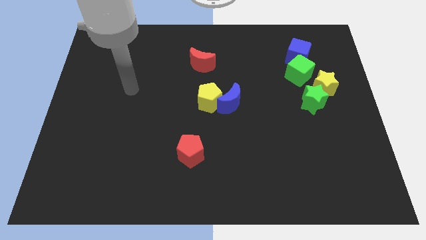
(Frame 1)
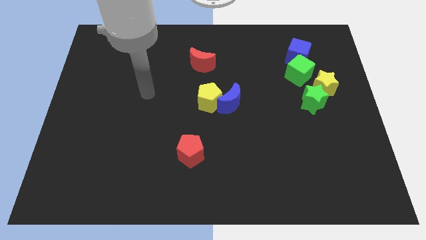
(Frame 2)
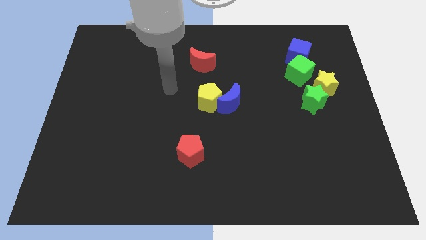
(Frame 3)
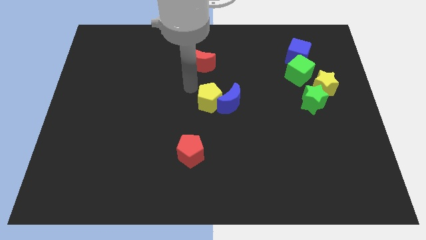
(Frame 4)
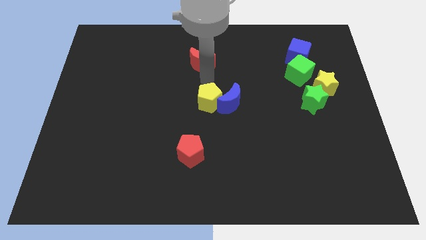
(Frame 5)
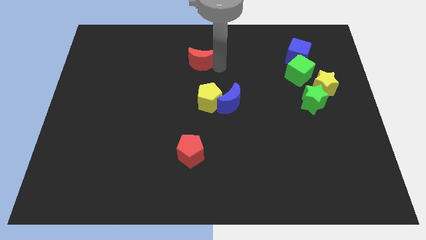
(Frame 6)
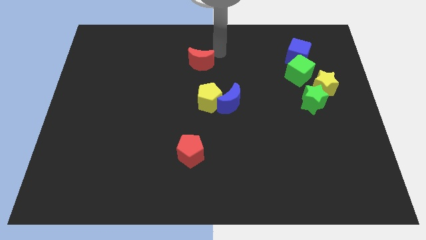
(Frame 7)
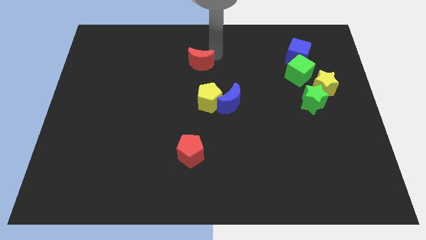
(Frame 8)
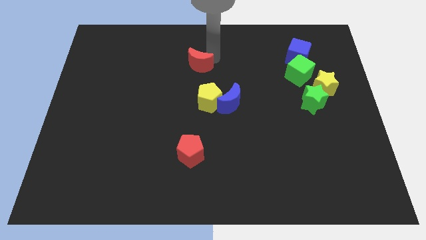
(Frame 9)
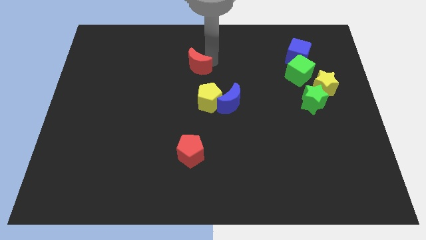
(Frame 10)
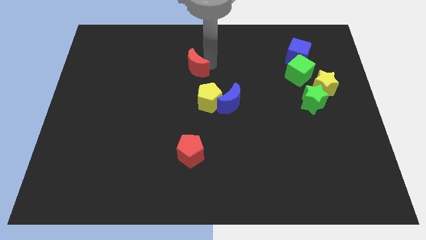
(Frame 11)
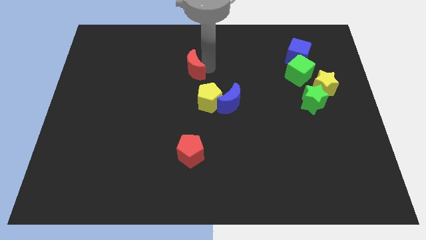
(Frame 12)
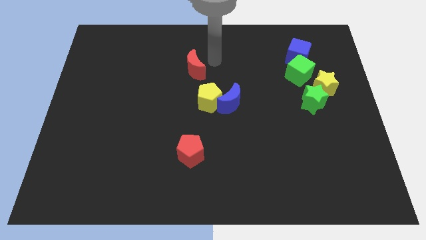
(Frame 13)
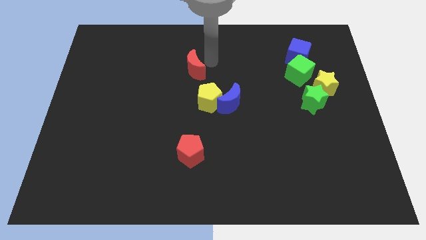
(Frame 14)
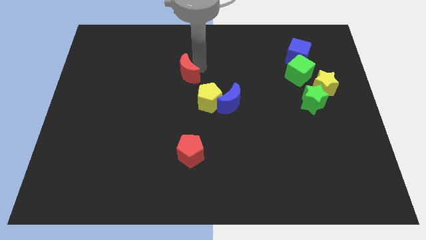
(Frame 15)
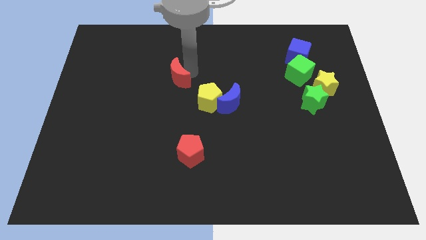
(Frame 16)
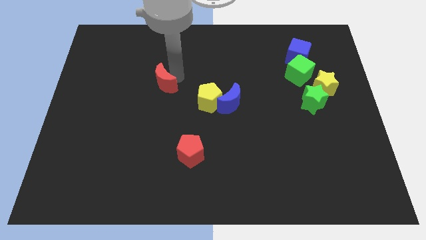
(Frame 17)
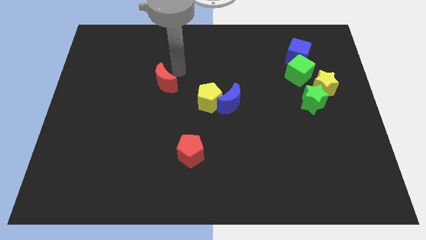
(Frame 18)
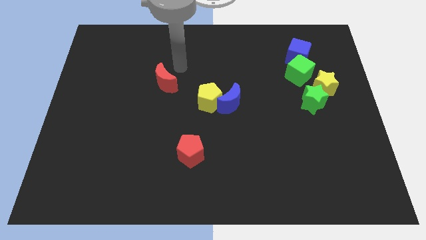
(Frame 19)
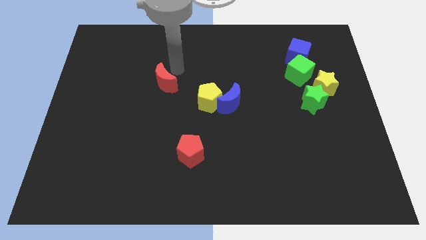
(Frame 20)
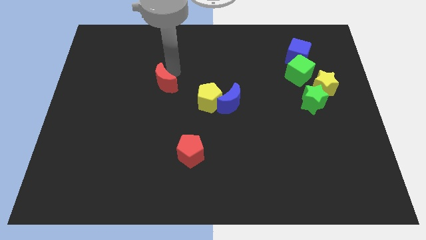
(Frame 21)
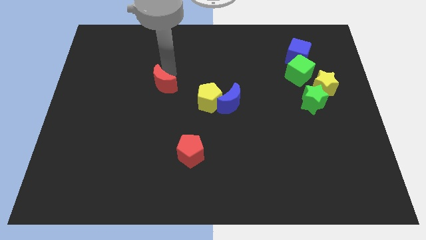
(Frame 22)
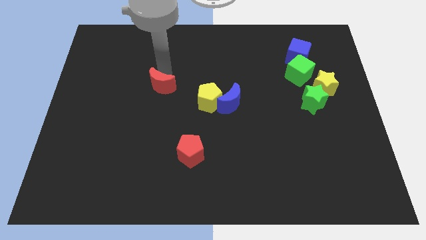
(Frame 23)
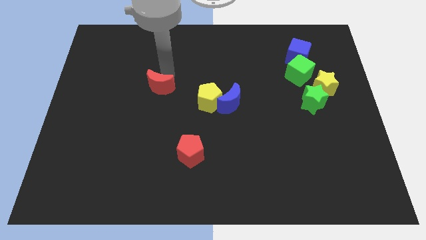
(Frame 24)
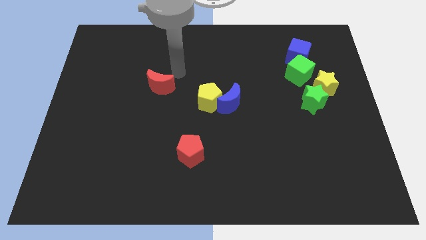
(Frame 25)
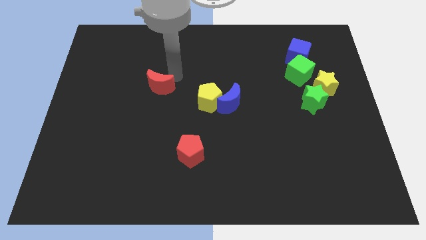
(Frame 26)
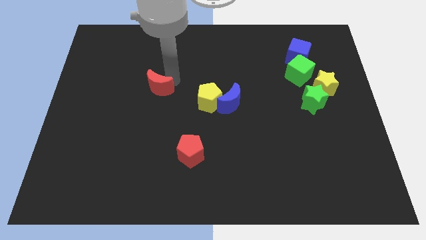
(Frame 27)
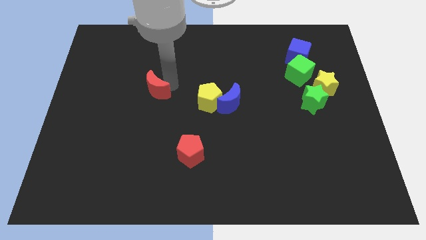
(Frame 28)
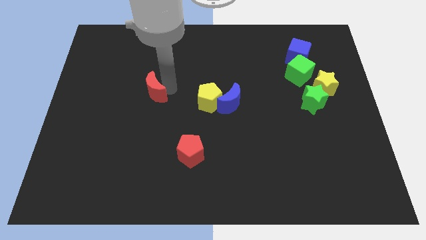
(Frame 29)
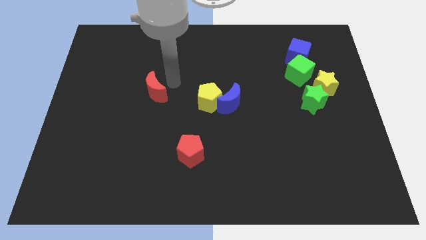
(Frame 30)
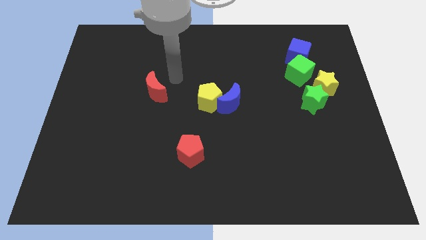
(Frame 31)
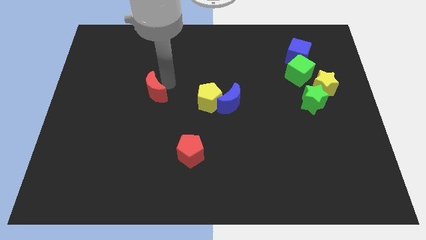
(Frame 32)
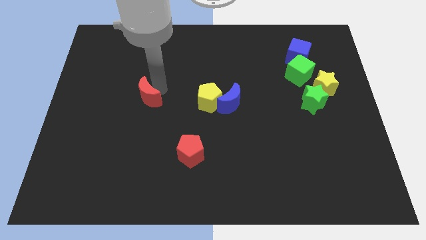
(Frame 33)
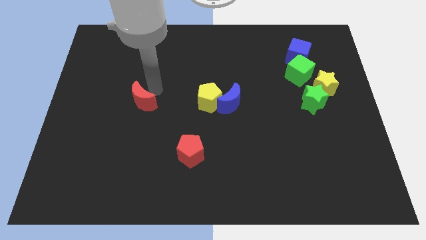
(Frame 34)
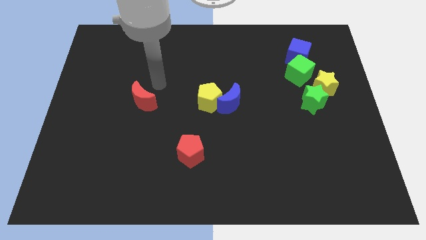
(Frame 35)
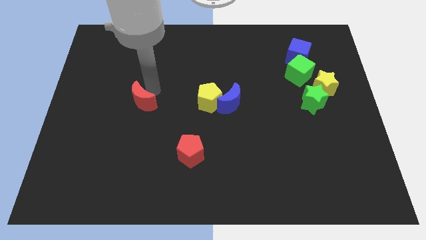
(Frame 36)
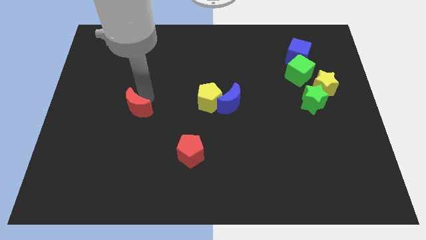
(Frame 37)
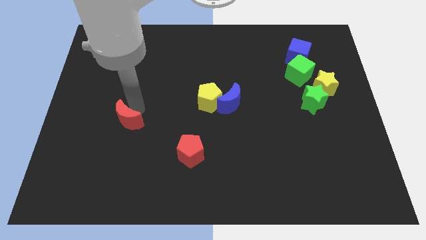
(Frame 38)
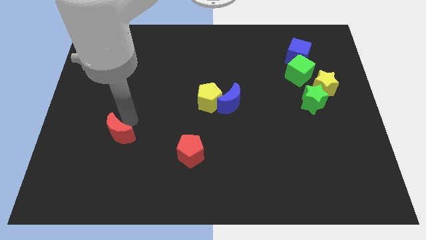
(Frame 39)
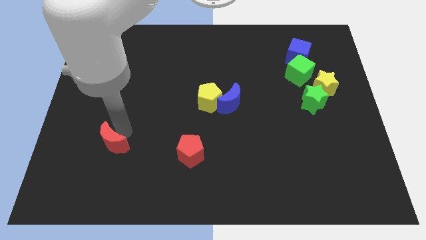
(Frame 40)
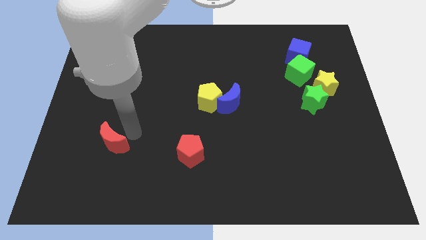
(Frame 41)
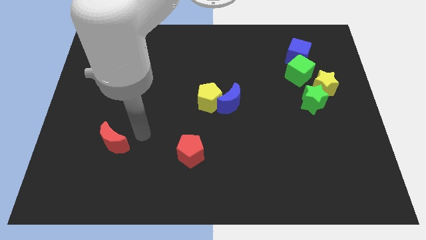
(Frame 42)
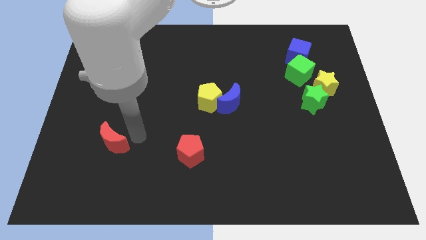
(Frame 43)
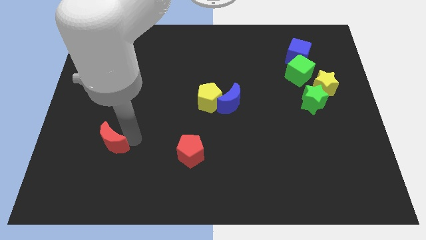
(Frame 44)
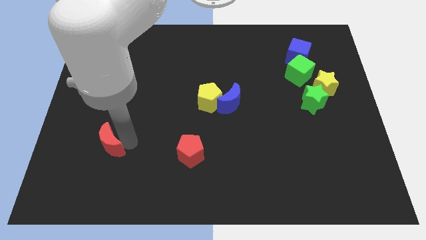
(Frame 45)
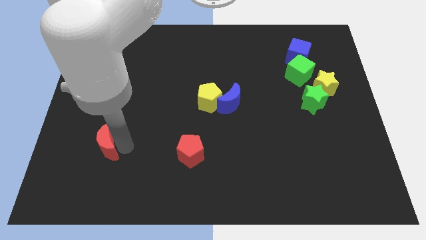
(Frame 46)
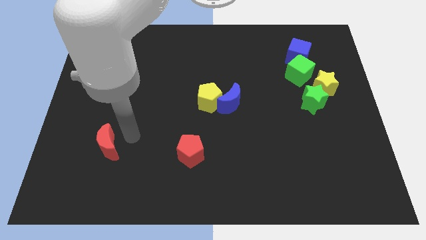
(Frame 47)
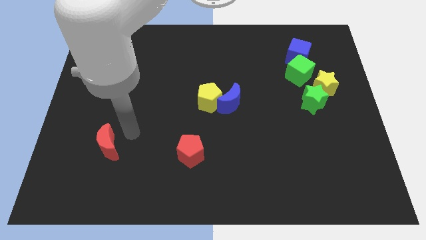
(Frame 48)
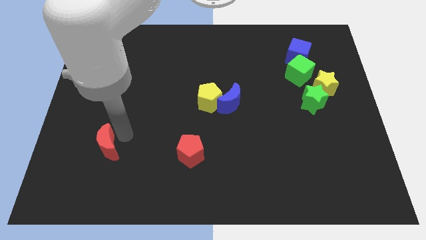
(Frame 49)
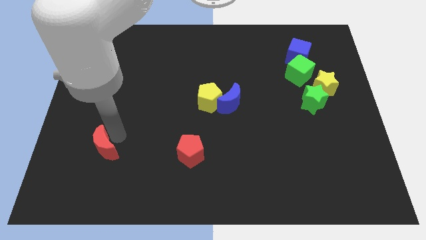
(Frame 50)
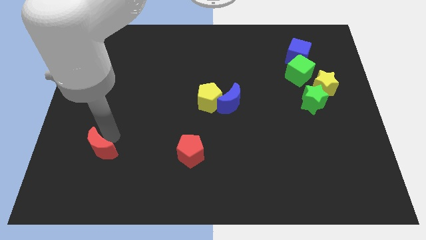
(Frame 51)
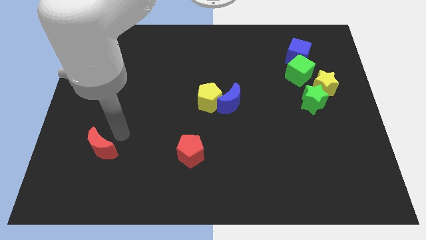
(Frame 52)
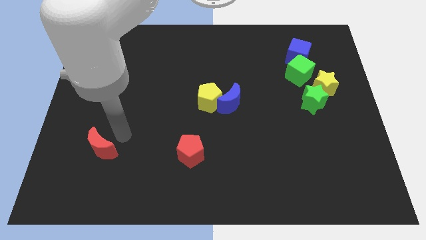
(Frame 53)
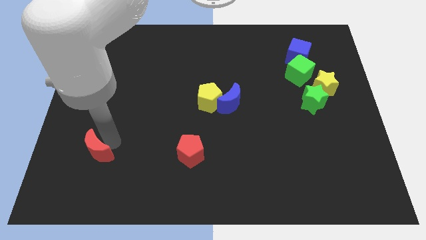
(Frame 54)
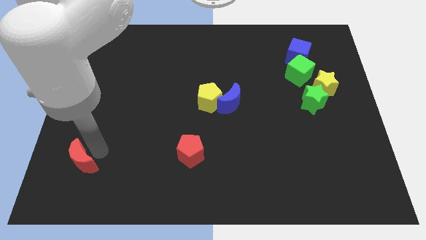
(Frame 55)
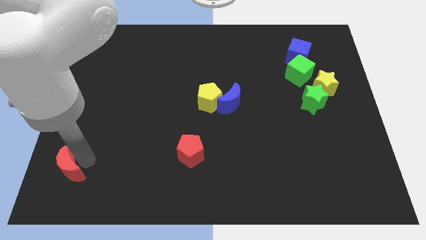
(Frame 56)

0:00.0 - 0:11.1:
slide the red moon to the bottom left of the board

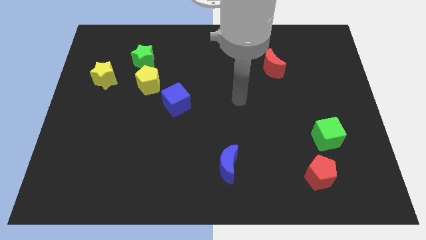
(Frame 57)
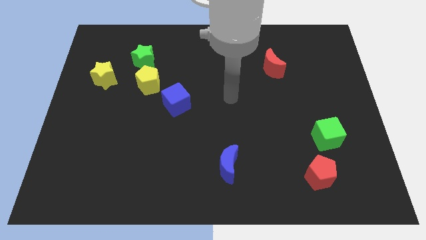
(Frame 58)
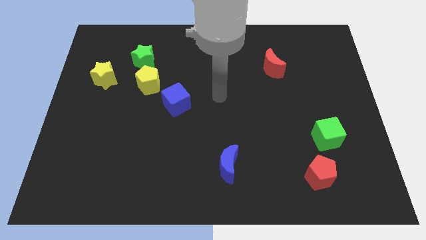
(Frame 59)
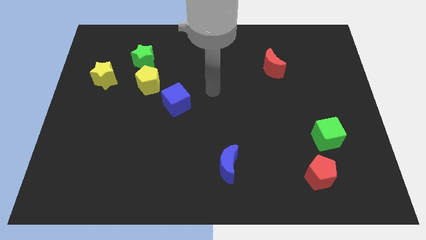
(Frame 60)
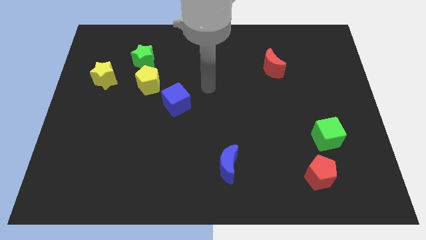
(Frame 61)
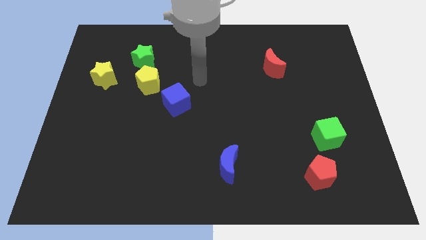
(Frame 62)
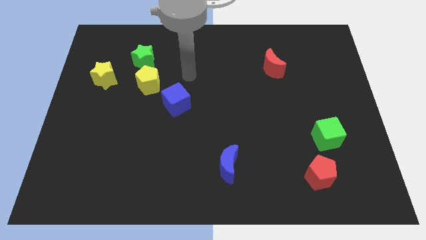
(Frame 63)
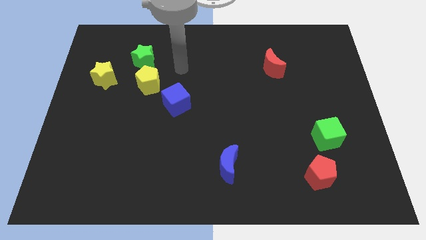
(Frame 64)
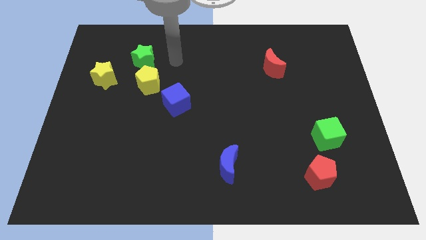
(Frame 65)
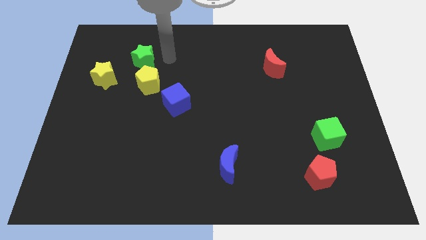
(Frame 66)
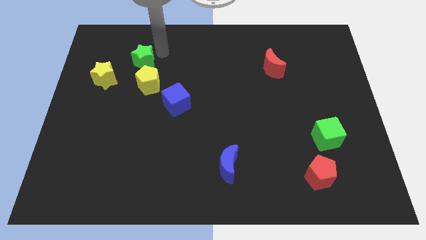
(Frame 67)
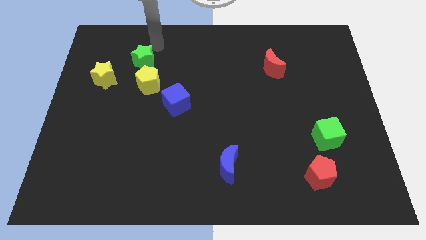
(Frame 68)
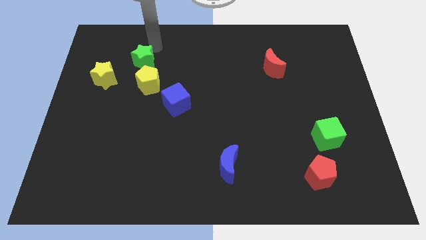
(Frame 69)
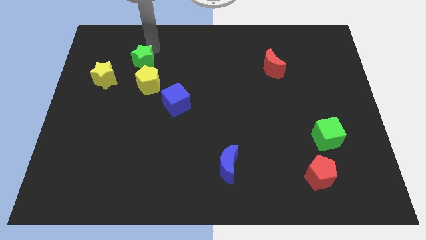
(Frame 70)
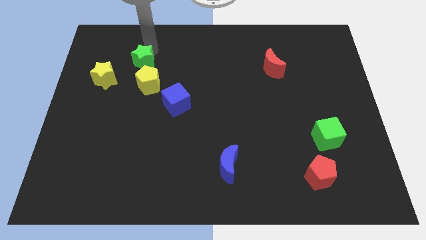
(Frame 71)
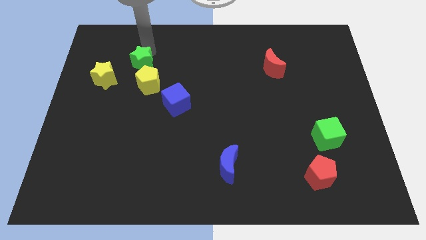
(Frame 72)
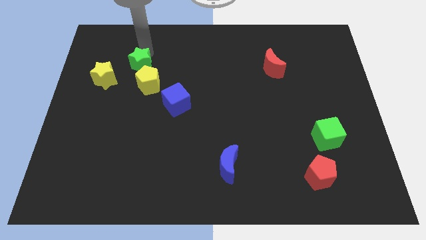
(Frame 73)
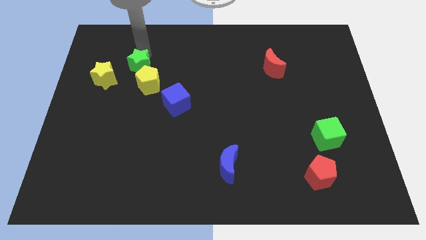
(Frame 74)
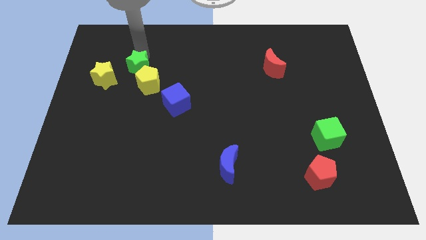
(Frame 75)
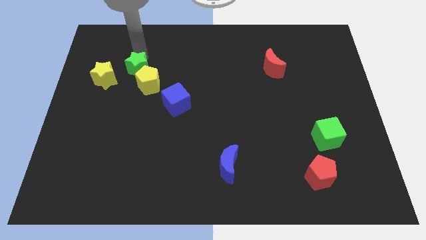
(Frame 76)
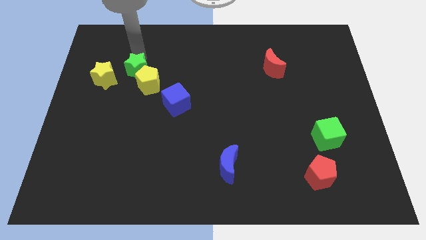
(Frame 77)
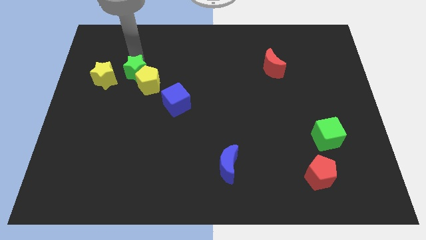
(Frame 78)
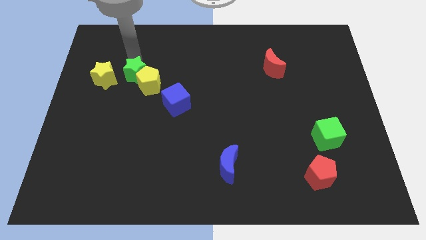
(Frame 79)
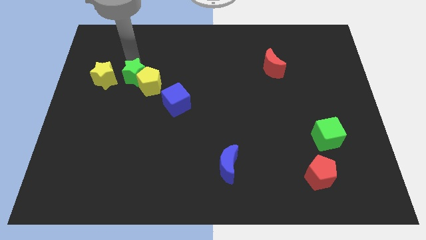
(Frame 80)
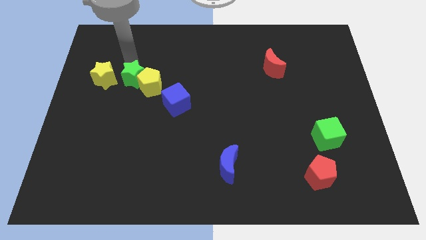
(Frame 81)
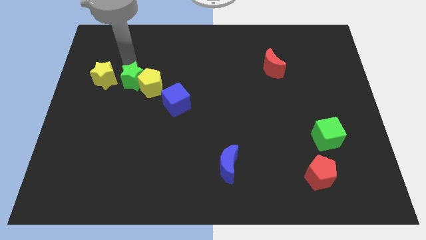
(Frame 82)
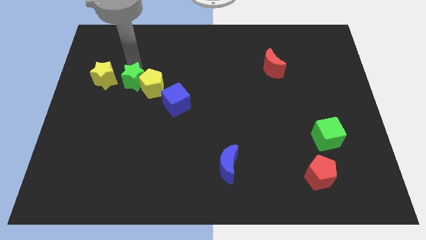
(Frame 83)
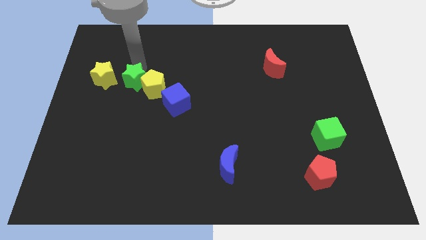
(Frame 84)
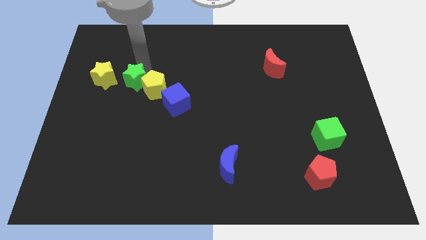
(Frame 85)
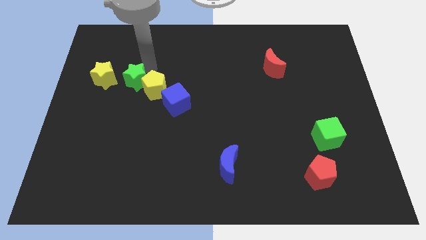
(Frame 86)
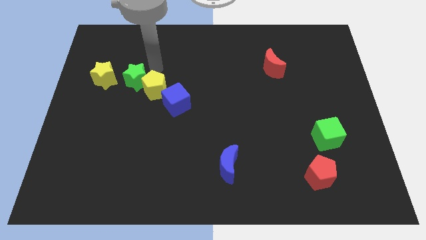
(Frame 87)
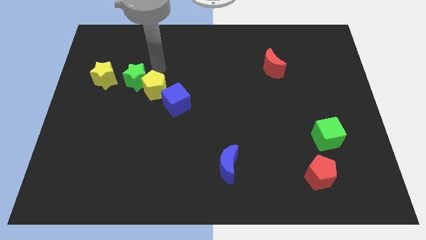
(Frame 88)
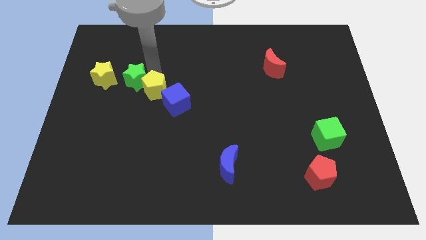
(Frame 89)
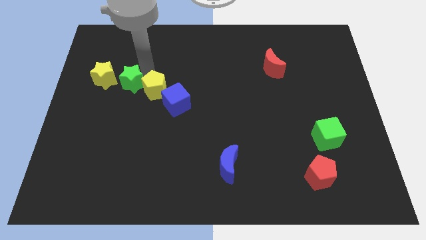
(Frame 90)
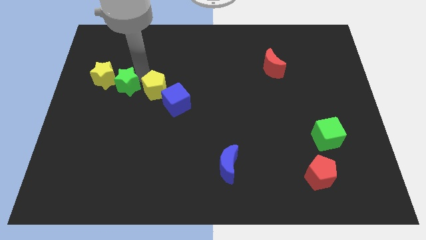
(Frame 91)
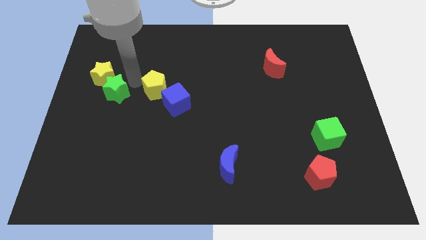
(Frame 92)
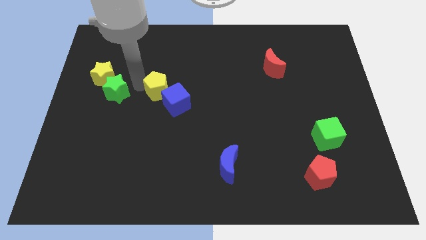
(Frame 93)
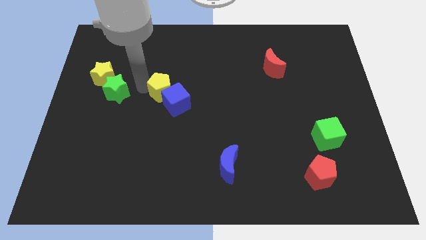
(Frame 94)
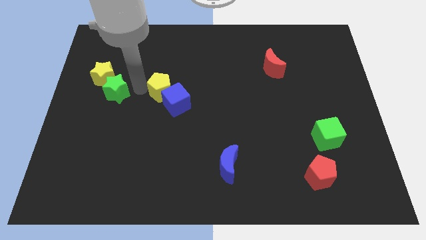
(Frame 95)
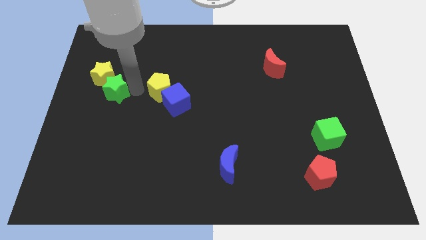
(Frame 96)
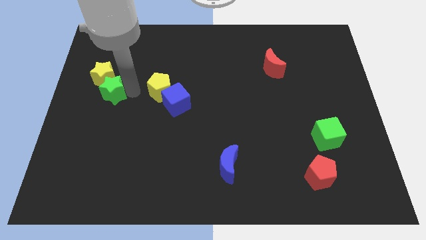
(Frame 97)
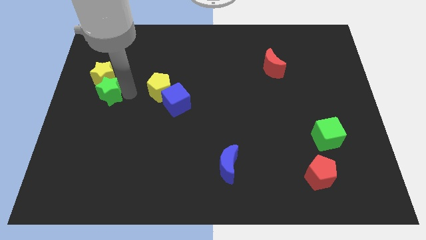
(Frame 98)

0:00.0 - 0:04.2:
push the green star to the center left
